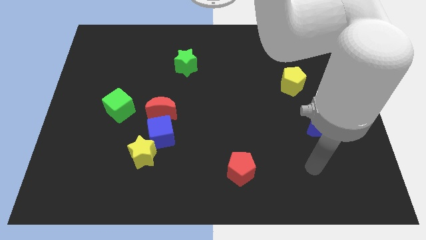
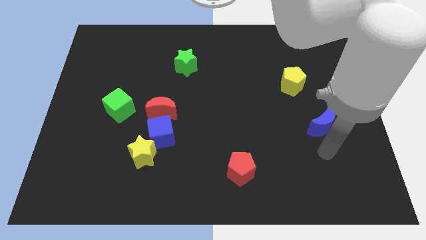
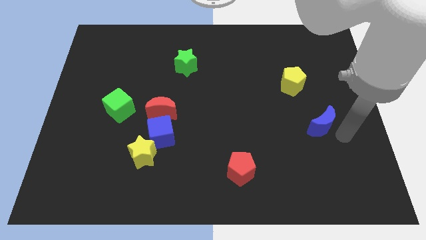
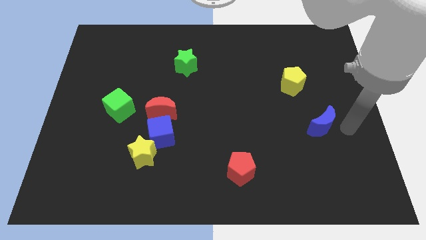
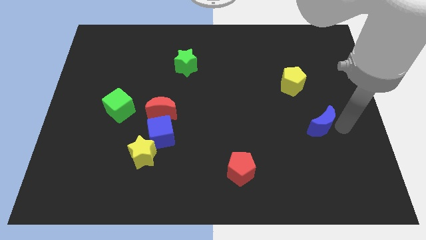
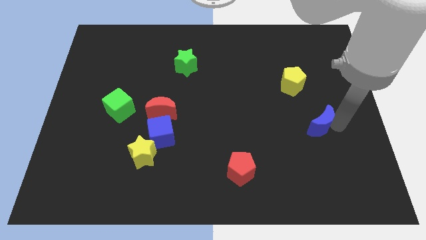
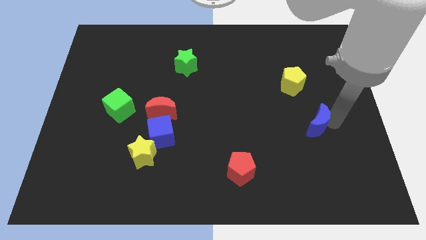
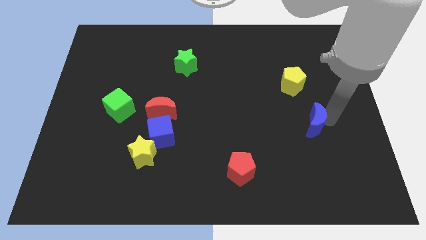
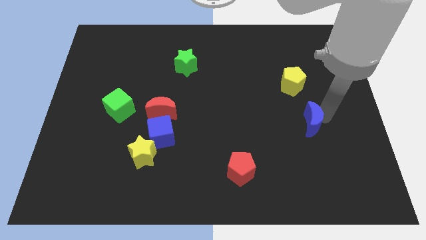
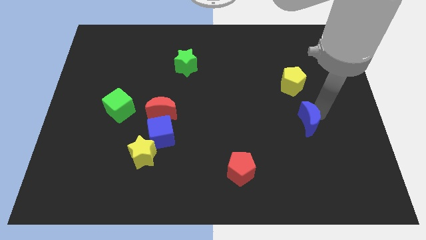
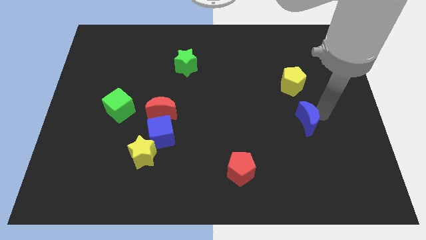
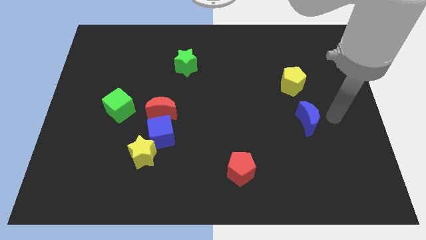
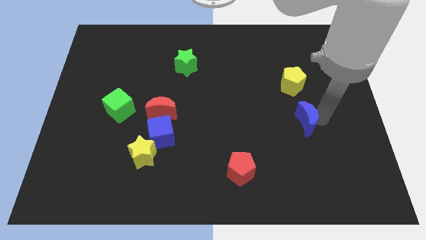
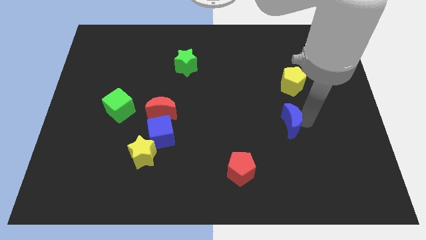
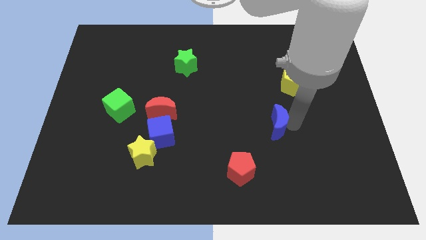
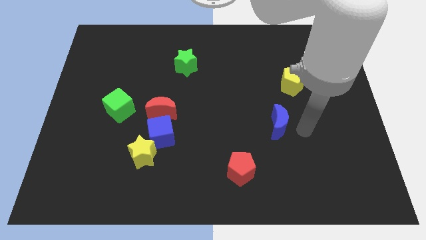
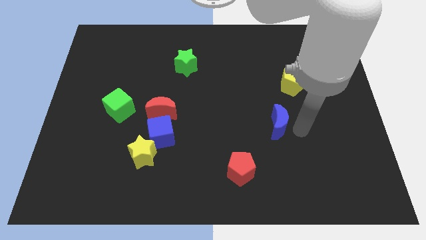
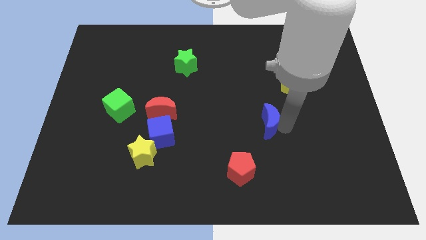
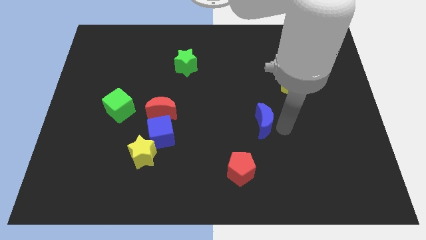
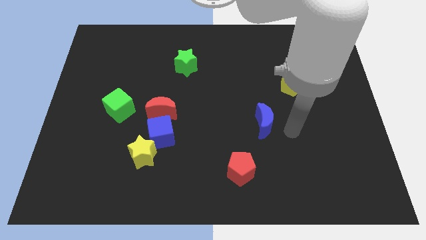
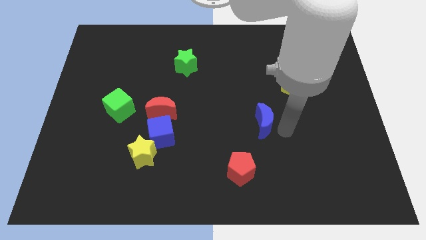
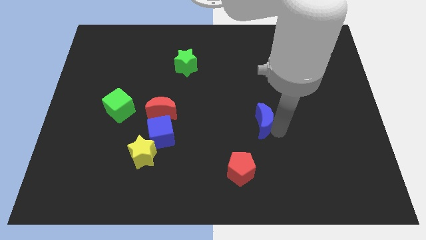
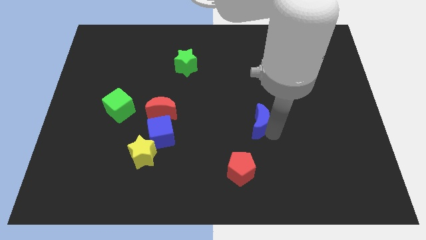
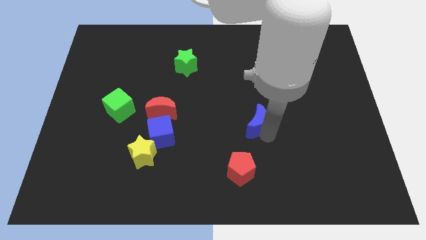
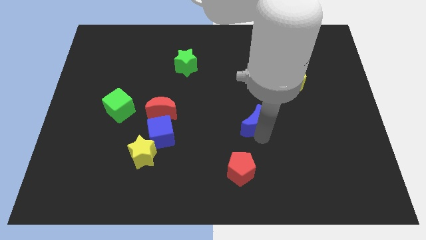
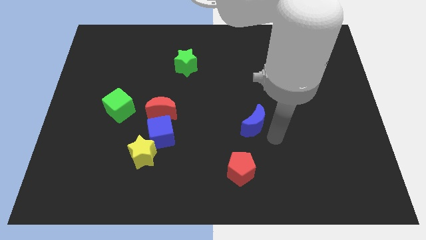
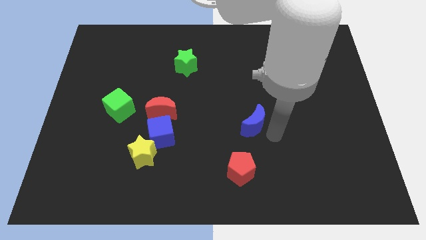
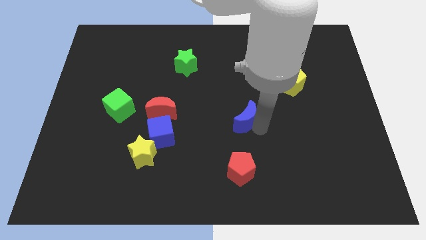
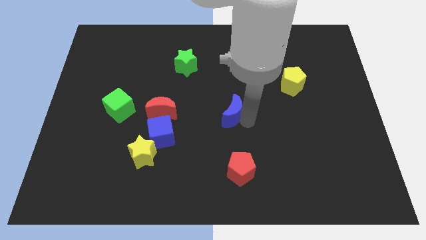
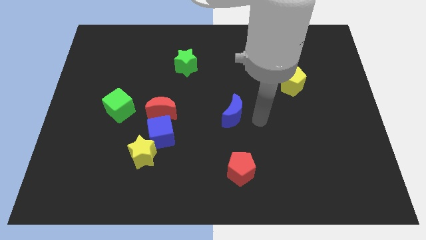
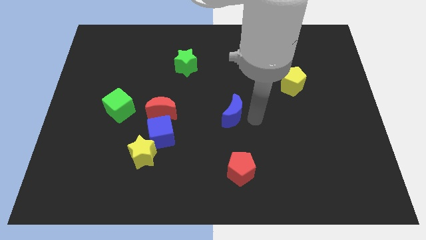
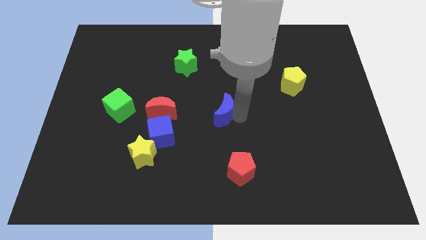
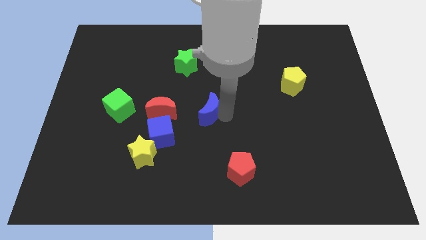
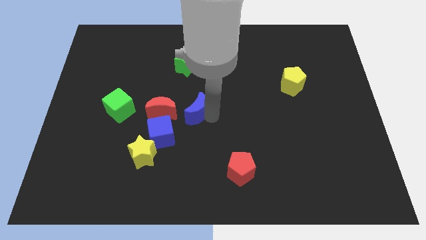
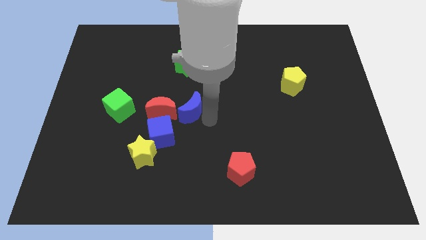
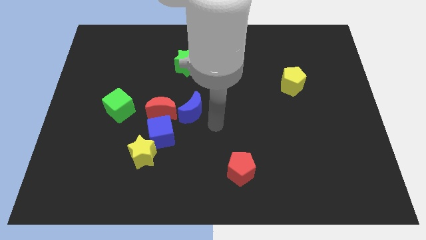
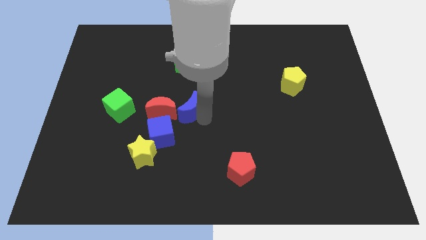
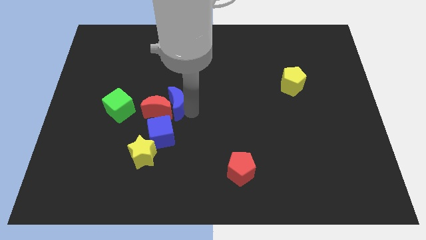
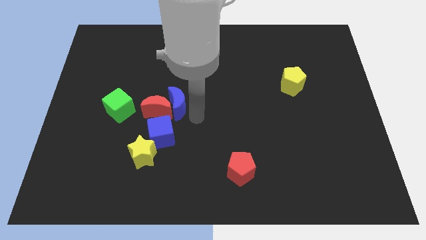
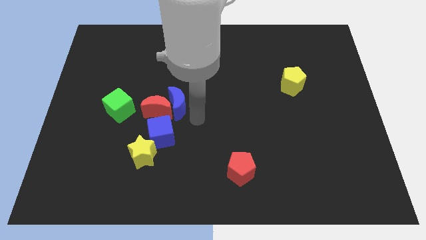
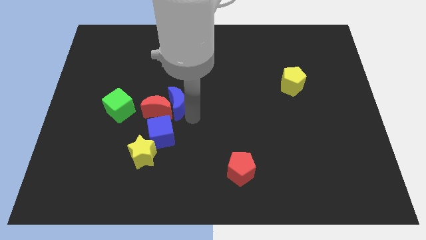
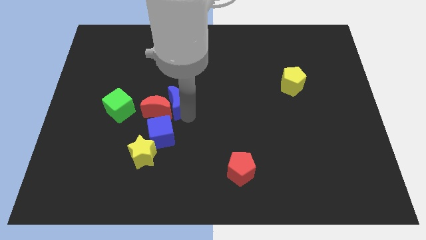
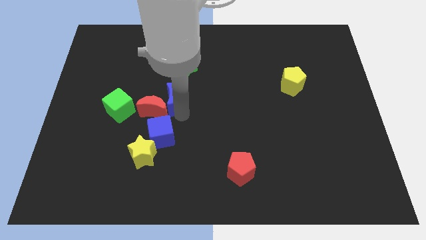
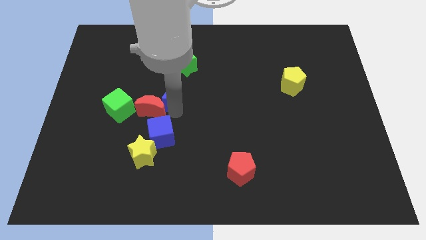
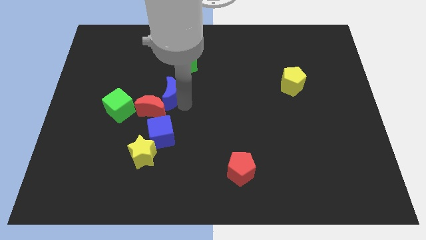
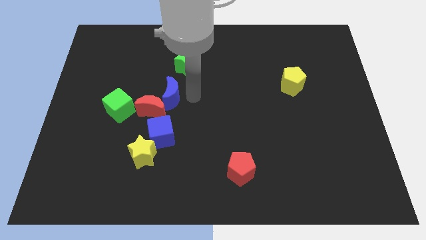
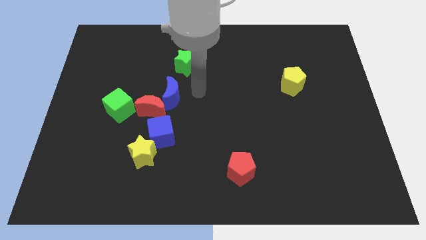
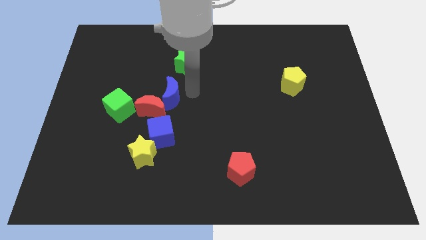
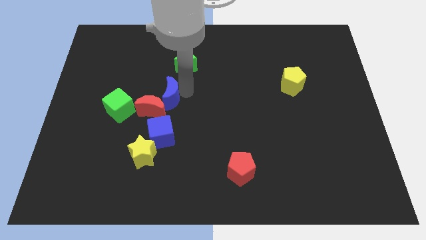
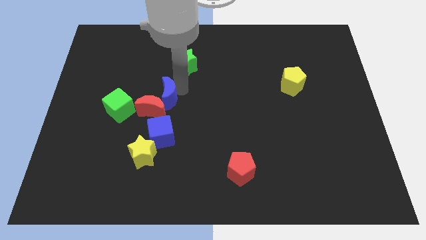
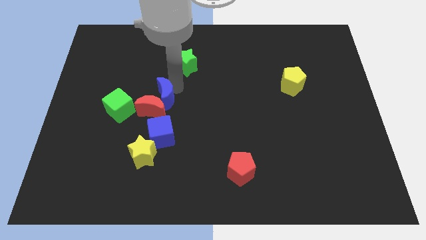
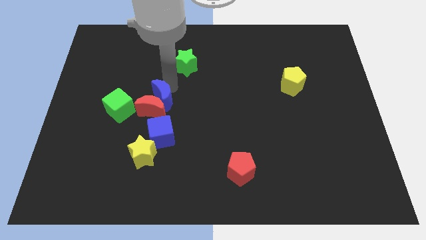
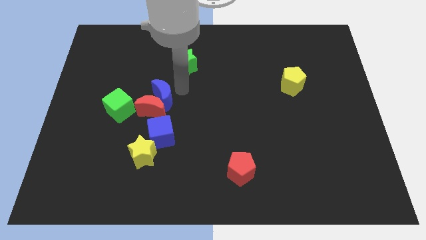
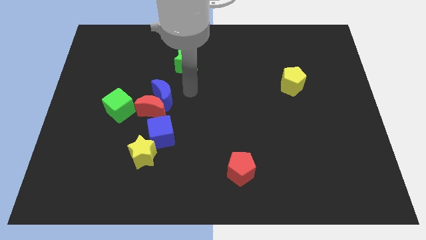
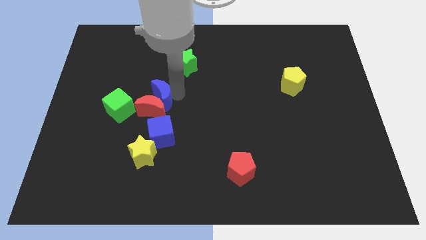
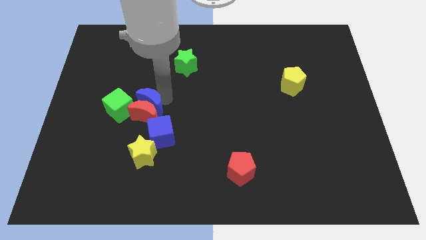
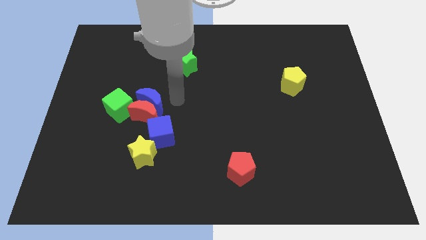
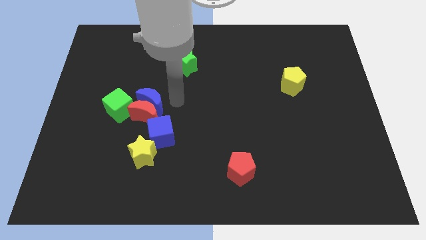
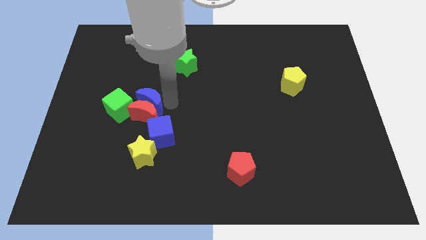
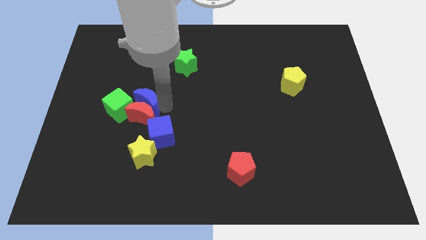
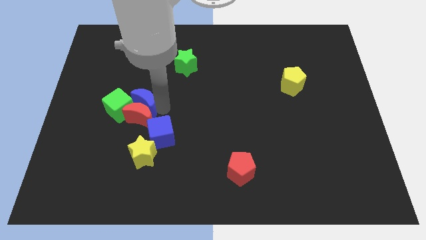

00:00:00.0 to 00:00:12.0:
slide the blue moon towards the green cube

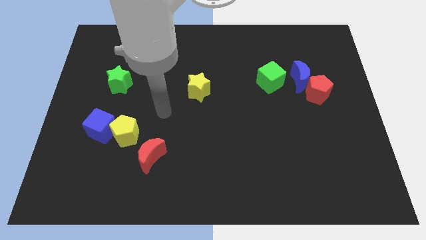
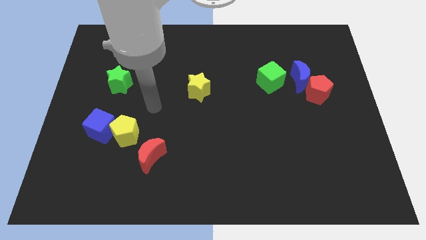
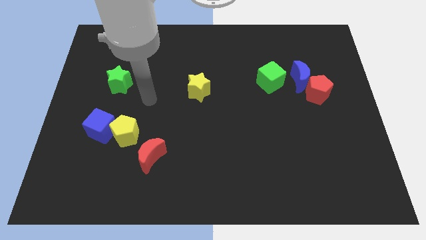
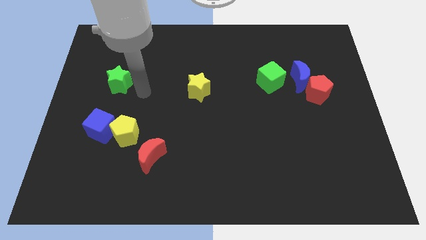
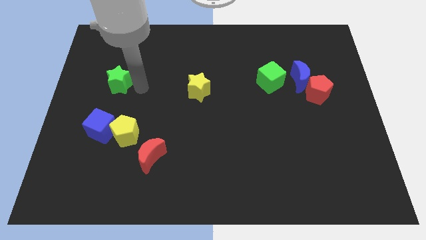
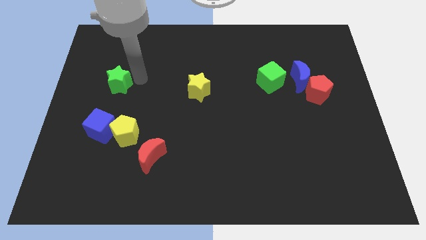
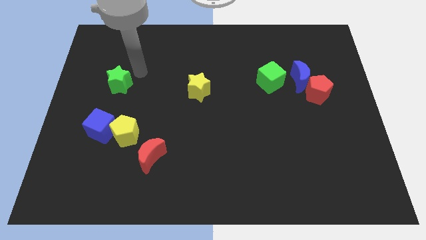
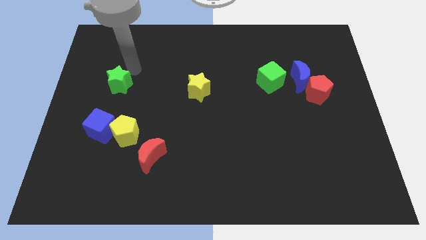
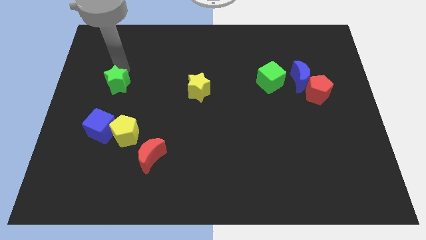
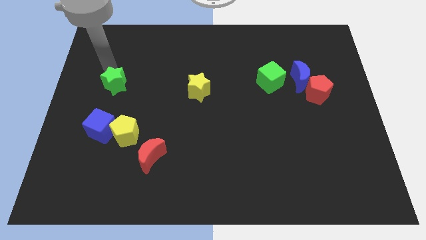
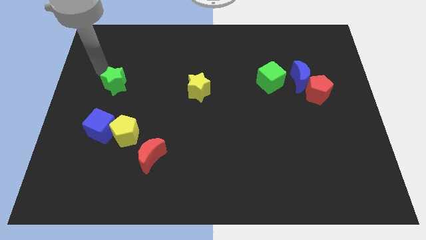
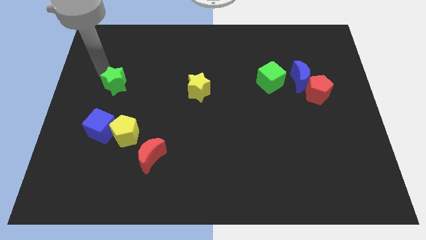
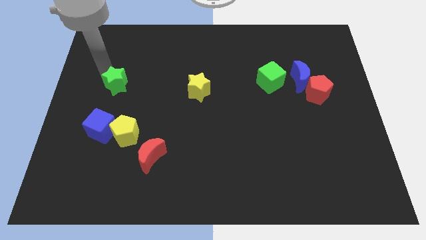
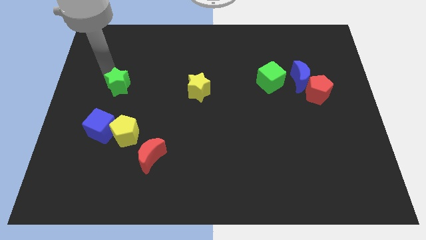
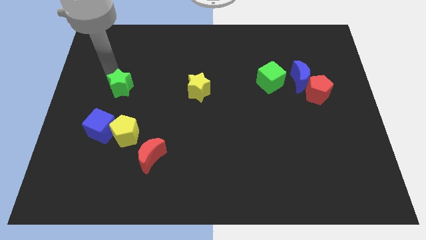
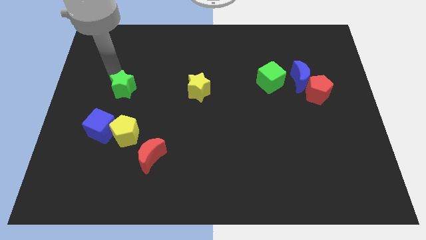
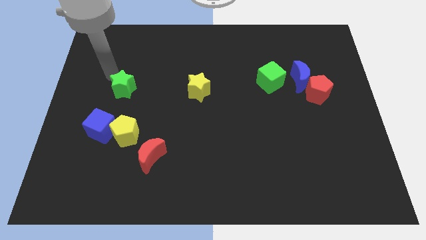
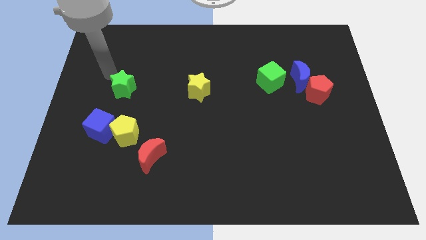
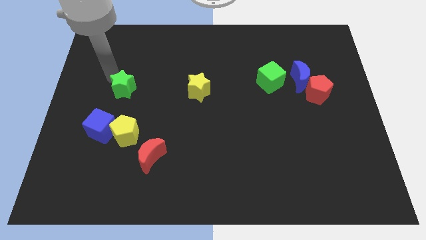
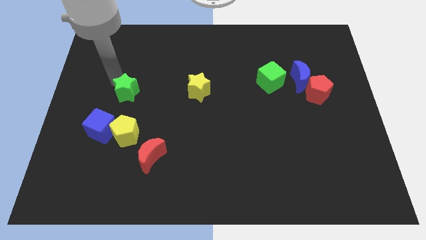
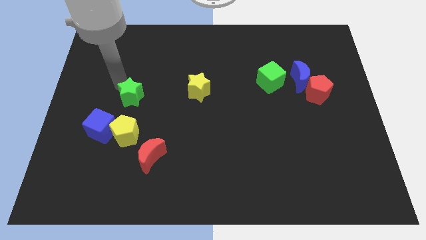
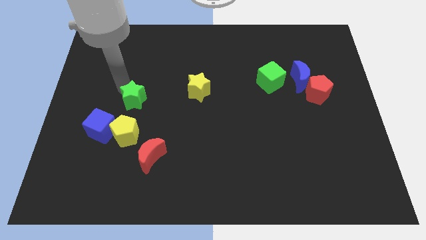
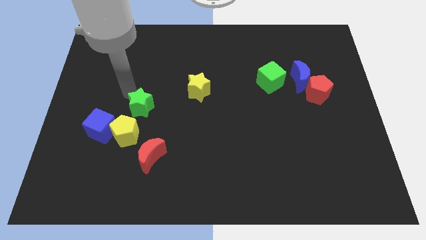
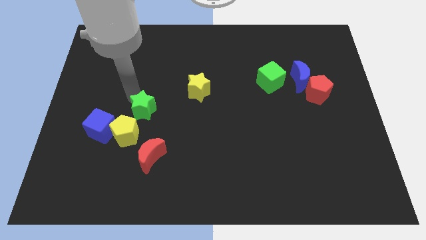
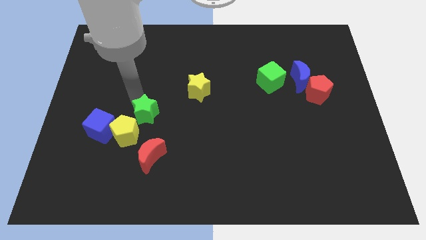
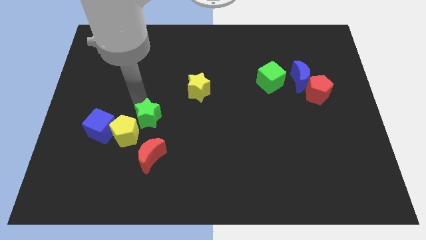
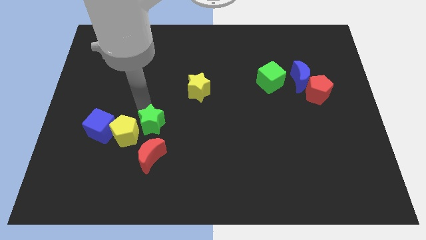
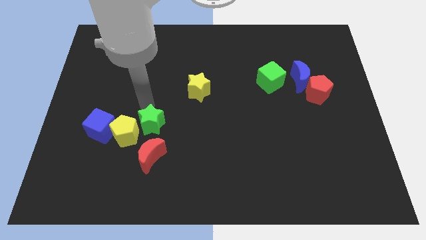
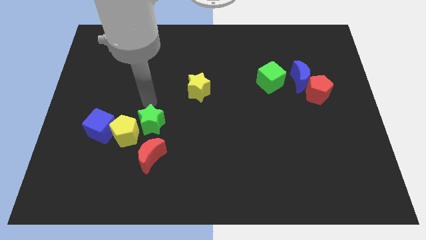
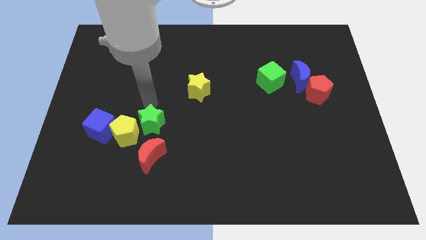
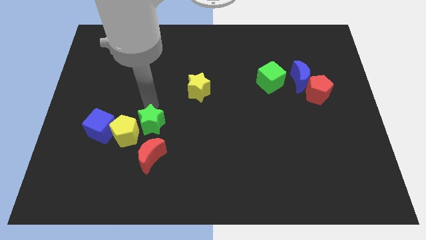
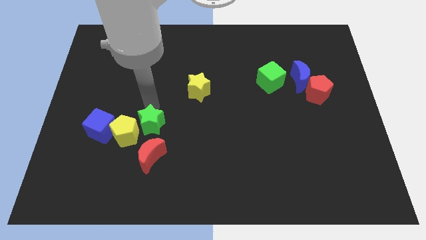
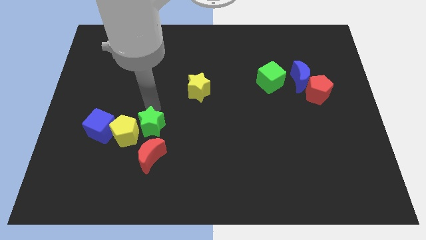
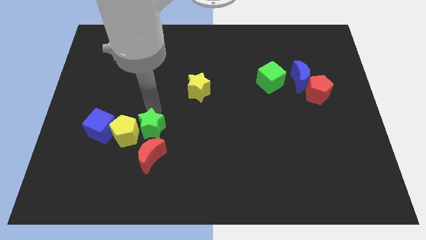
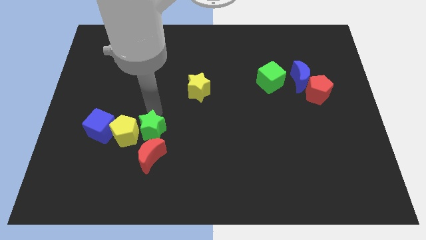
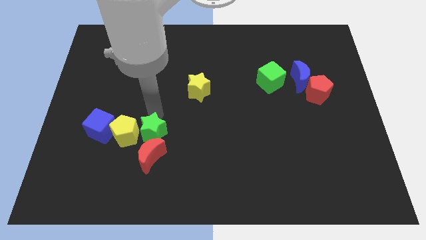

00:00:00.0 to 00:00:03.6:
push the green star to the red moon
